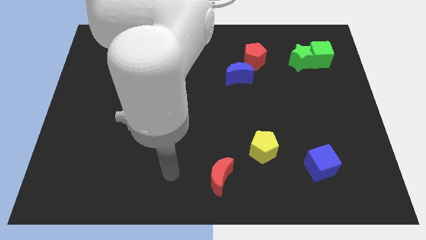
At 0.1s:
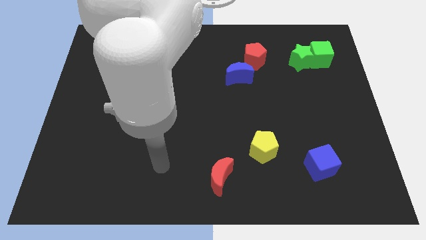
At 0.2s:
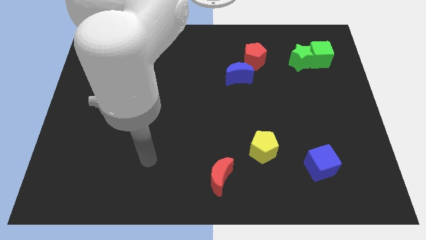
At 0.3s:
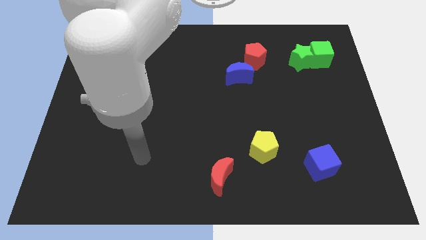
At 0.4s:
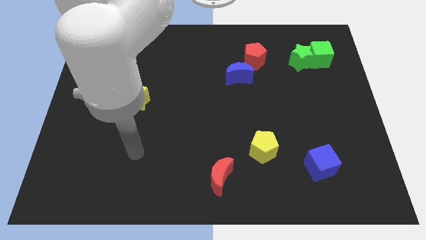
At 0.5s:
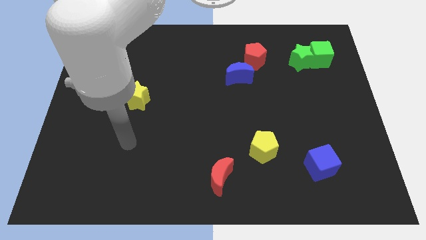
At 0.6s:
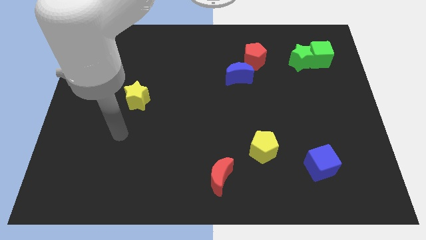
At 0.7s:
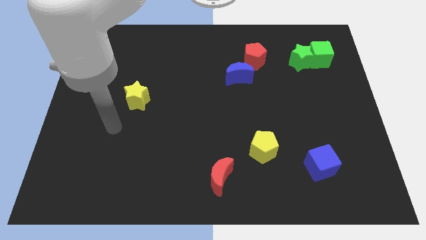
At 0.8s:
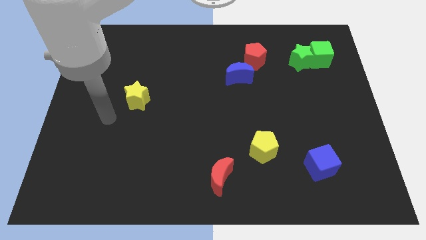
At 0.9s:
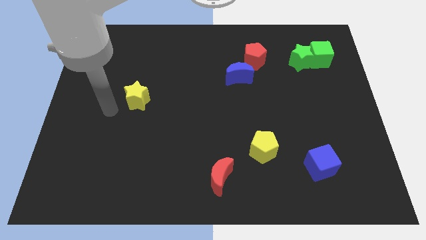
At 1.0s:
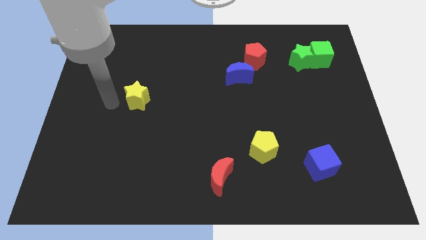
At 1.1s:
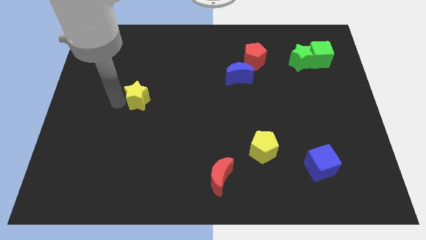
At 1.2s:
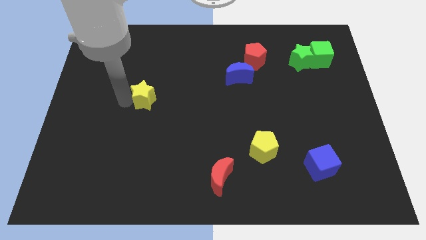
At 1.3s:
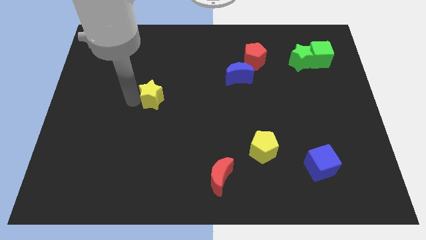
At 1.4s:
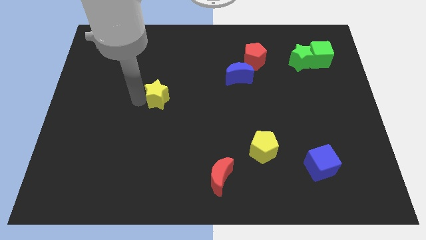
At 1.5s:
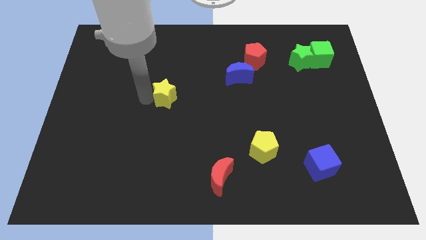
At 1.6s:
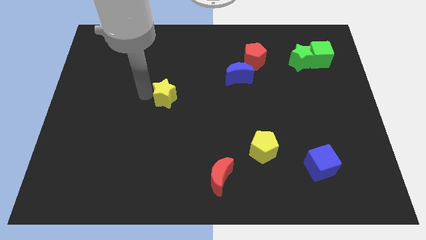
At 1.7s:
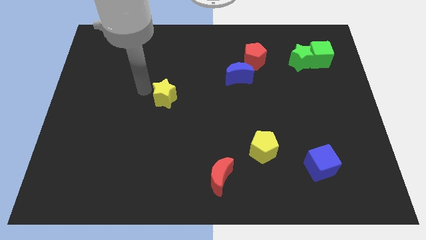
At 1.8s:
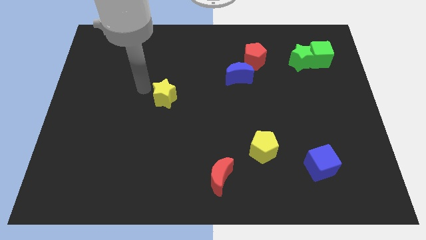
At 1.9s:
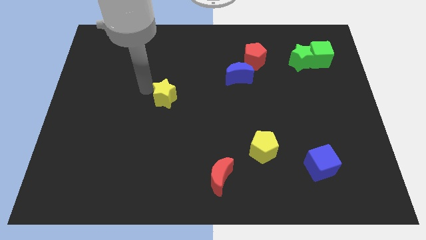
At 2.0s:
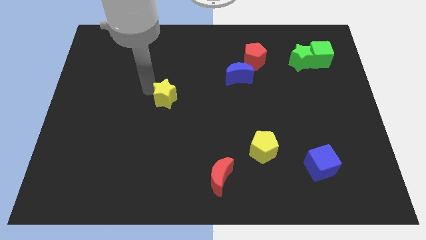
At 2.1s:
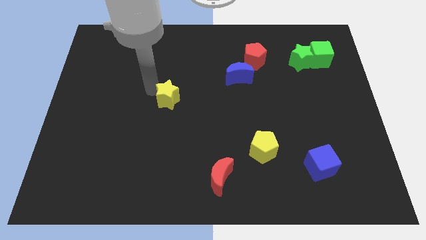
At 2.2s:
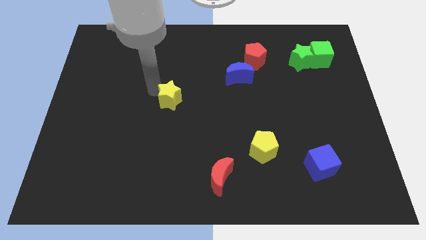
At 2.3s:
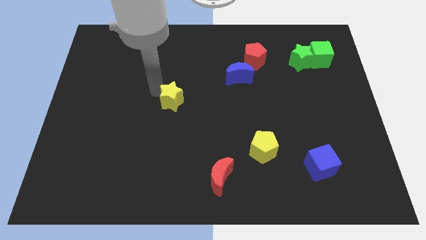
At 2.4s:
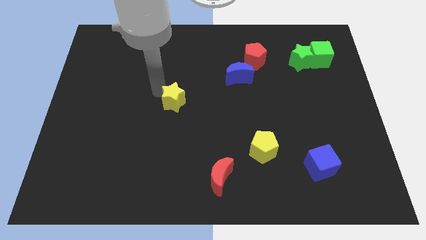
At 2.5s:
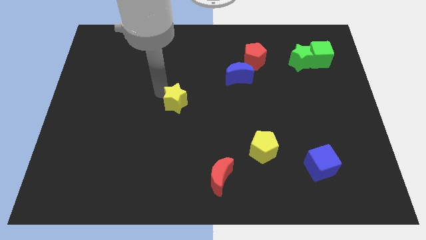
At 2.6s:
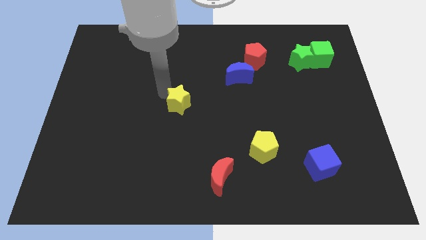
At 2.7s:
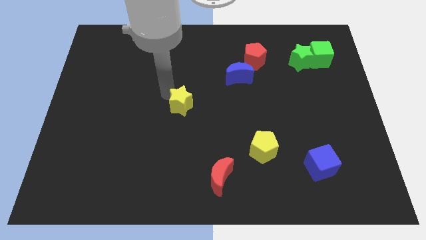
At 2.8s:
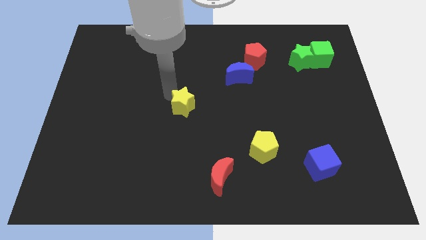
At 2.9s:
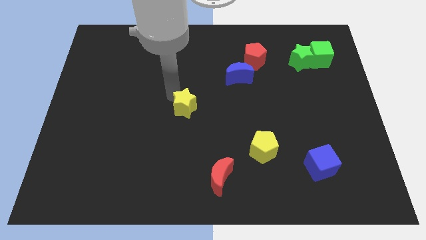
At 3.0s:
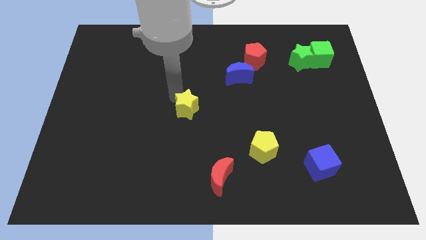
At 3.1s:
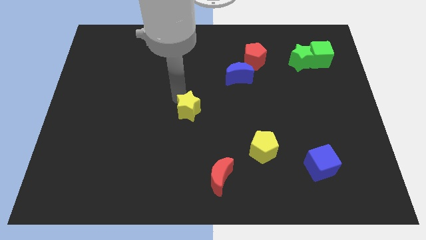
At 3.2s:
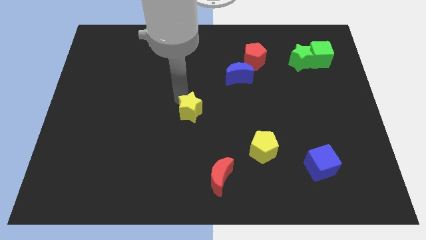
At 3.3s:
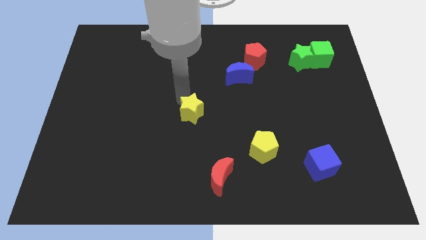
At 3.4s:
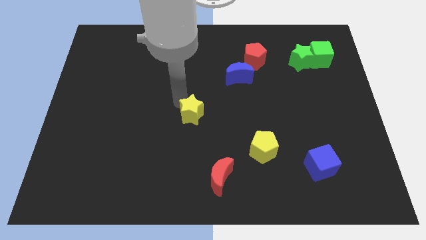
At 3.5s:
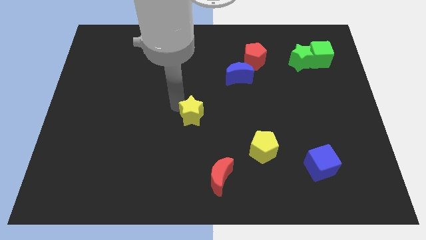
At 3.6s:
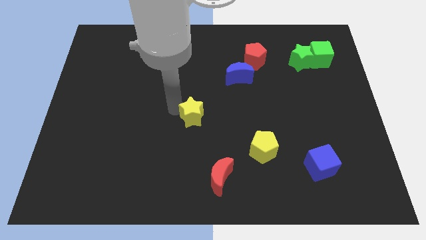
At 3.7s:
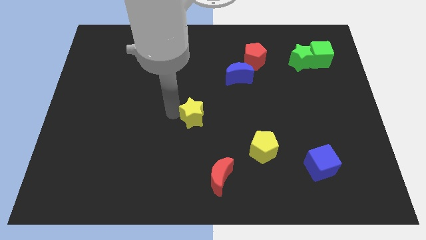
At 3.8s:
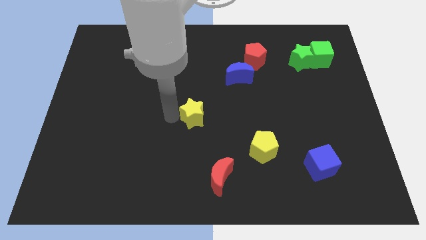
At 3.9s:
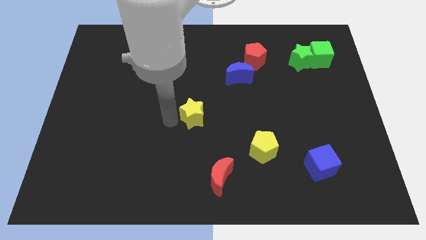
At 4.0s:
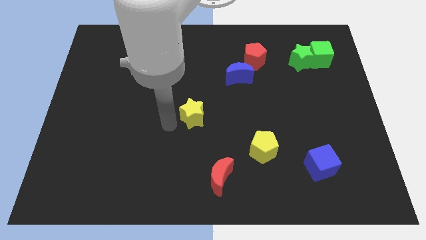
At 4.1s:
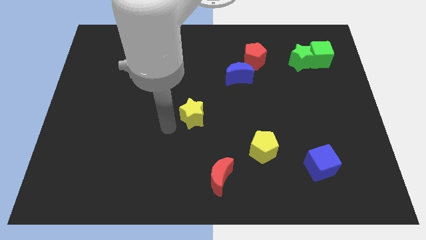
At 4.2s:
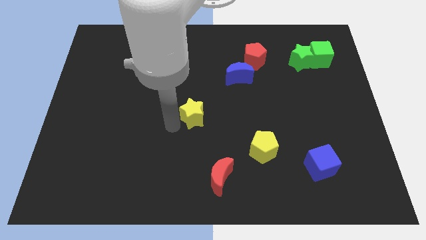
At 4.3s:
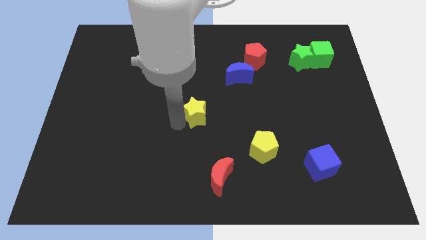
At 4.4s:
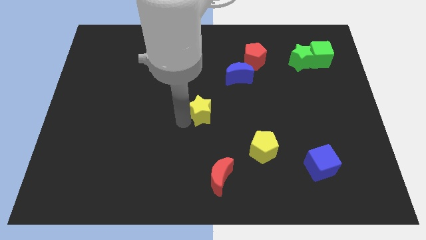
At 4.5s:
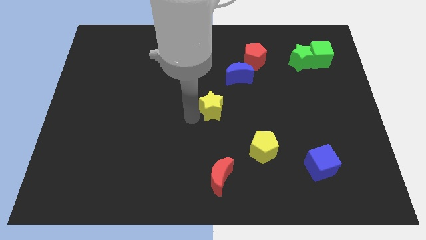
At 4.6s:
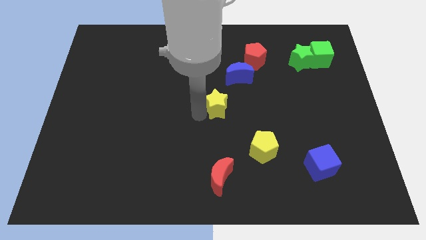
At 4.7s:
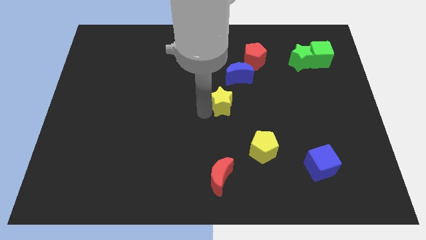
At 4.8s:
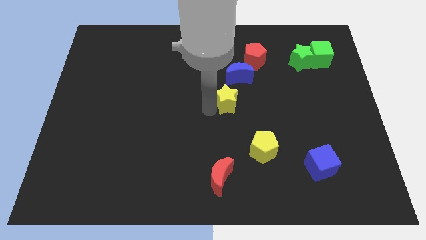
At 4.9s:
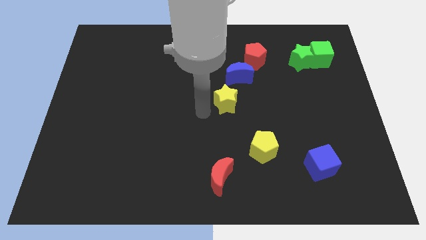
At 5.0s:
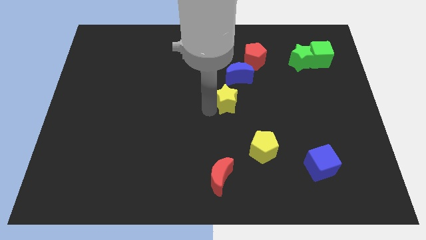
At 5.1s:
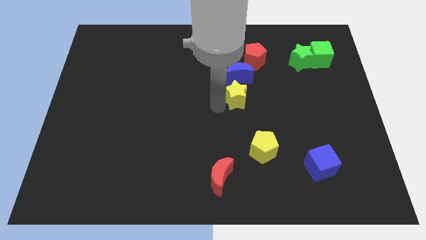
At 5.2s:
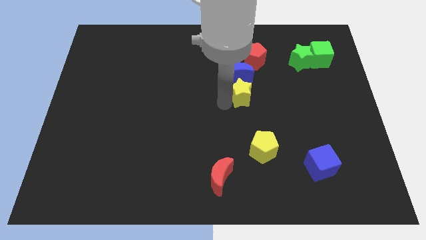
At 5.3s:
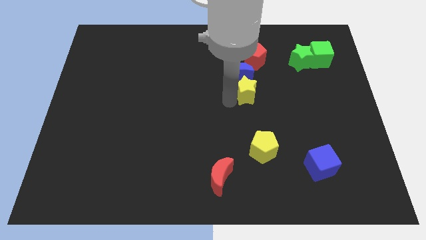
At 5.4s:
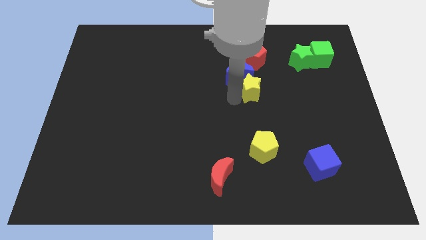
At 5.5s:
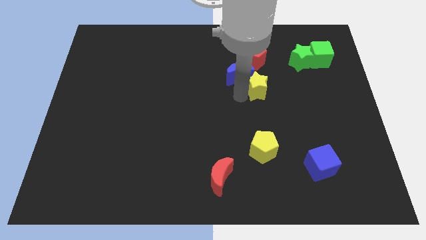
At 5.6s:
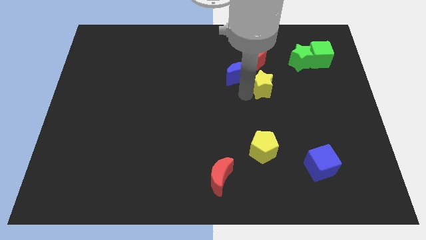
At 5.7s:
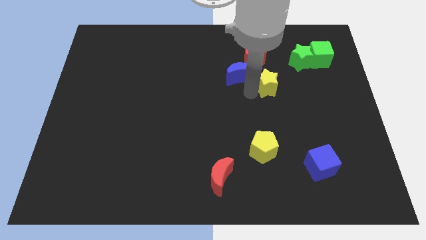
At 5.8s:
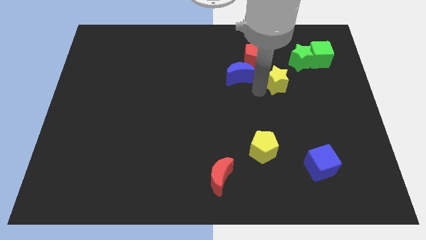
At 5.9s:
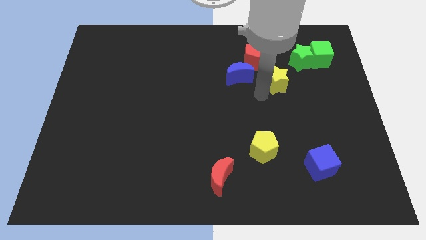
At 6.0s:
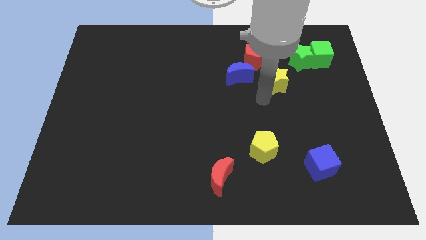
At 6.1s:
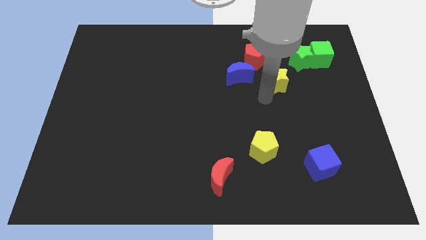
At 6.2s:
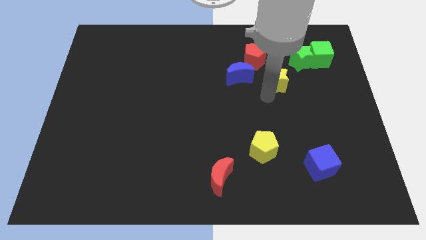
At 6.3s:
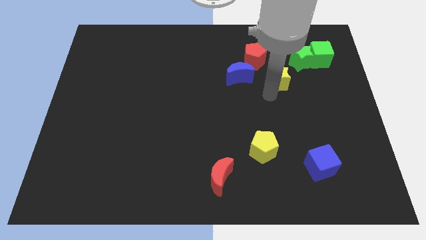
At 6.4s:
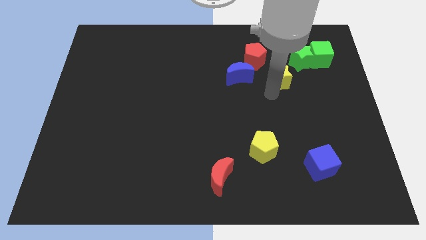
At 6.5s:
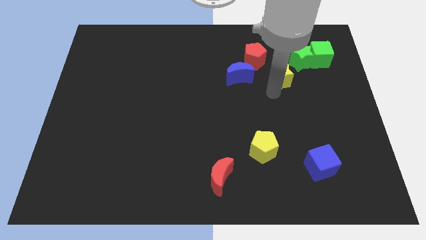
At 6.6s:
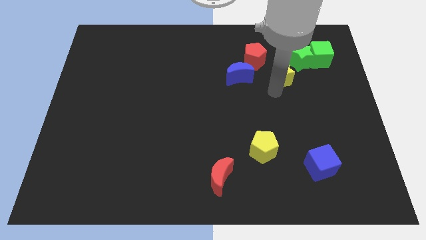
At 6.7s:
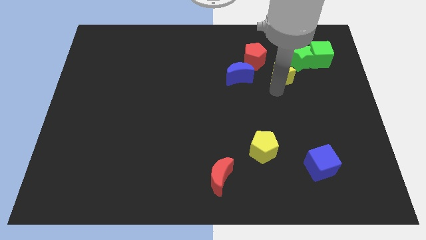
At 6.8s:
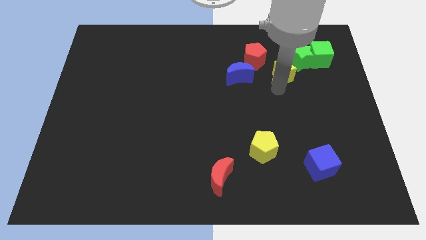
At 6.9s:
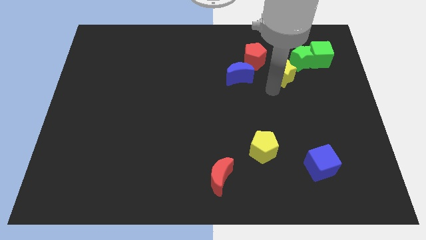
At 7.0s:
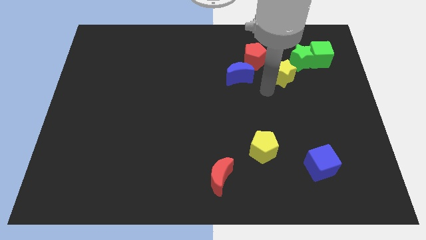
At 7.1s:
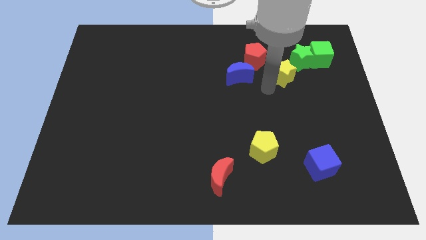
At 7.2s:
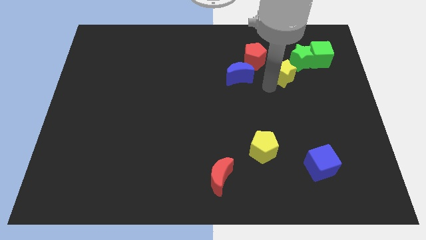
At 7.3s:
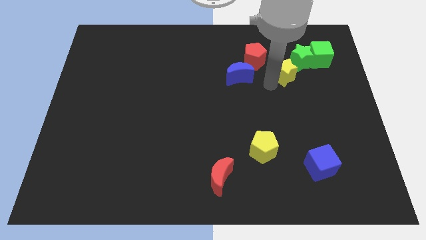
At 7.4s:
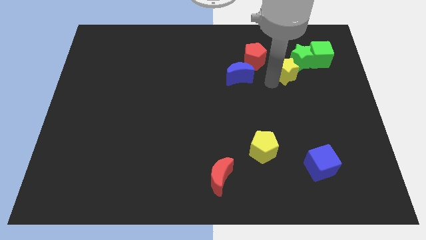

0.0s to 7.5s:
move the yellow star to the green star

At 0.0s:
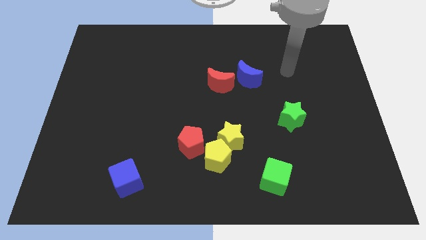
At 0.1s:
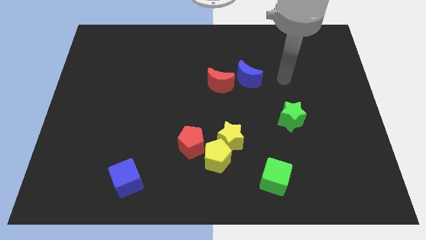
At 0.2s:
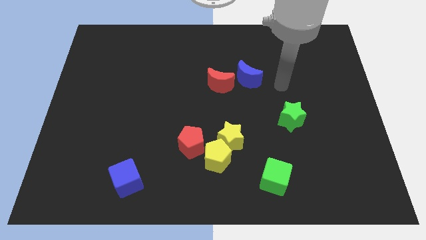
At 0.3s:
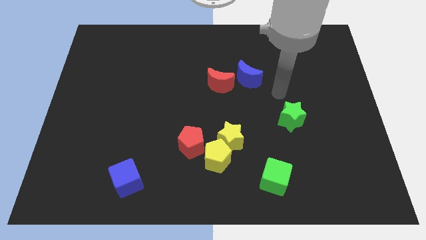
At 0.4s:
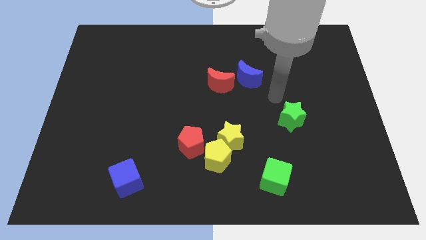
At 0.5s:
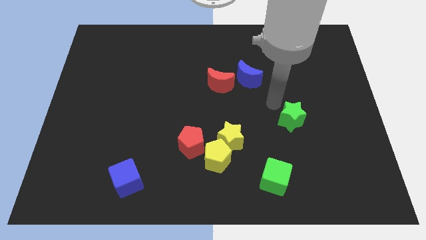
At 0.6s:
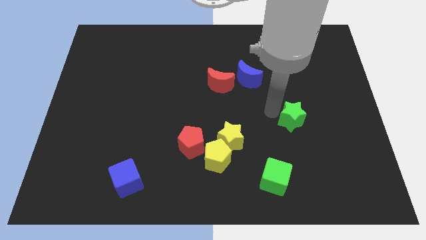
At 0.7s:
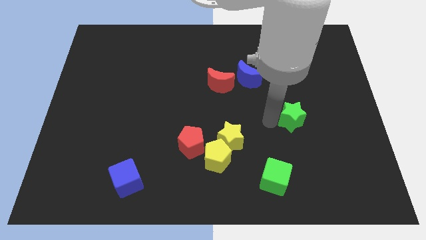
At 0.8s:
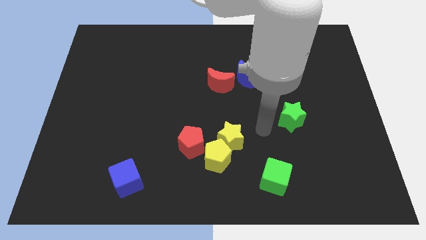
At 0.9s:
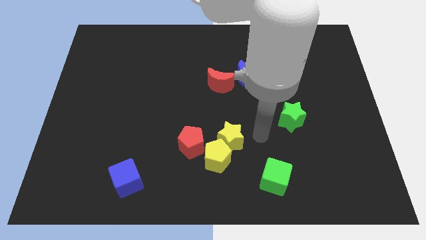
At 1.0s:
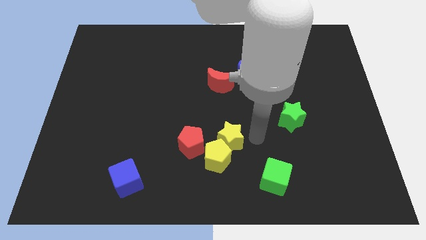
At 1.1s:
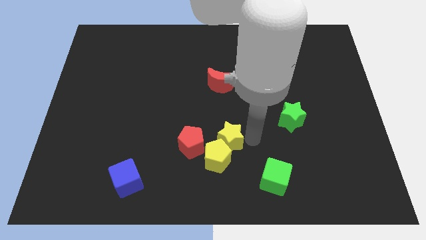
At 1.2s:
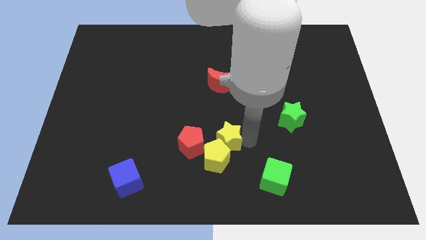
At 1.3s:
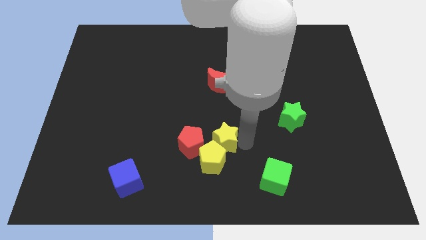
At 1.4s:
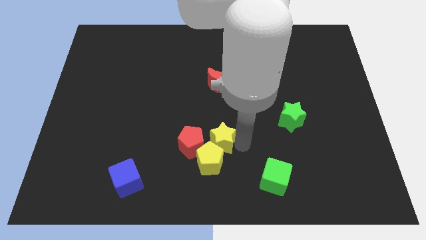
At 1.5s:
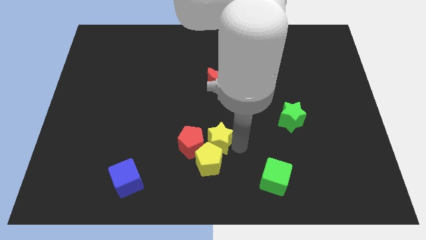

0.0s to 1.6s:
move the yellow star to the red pentagon
